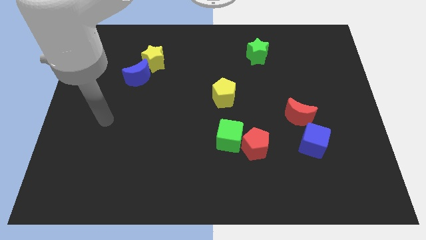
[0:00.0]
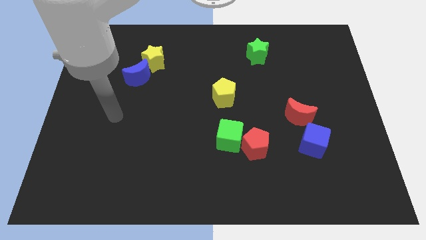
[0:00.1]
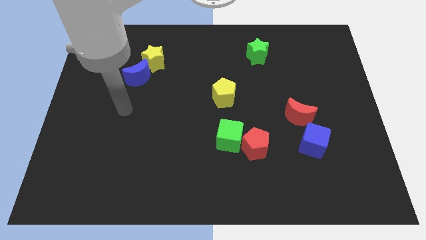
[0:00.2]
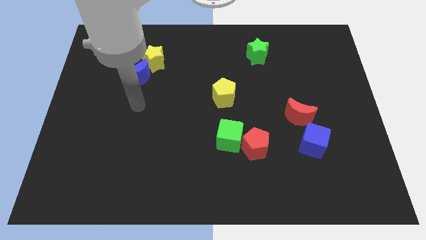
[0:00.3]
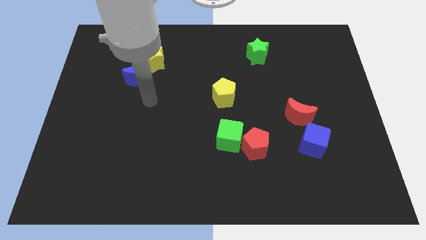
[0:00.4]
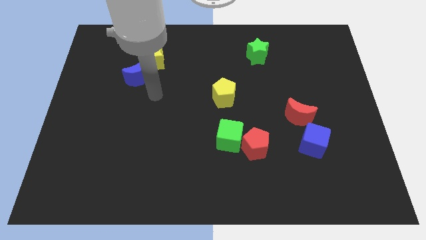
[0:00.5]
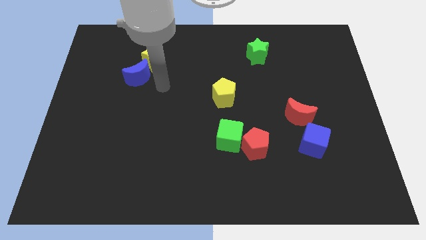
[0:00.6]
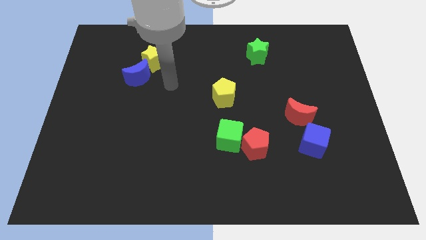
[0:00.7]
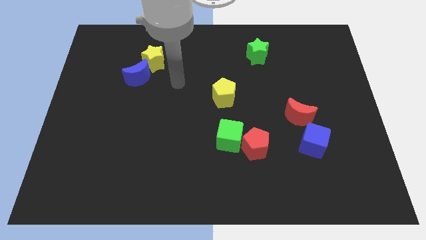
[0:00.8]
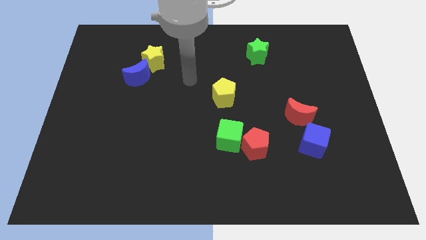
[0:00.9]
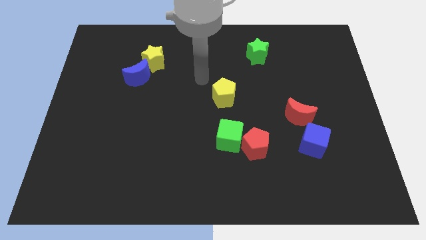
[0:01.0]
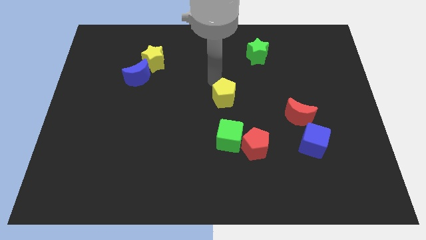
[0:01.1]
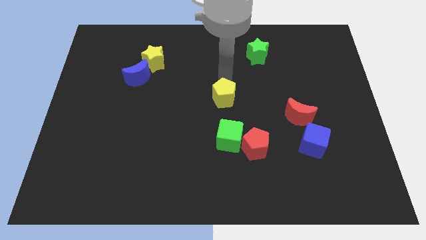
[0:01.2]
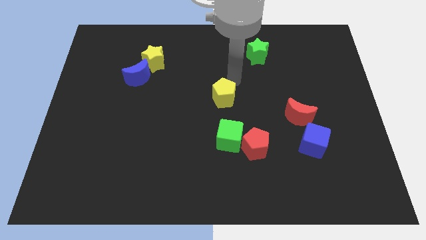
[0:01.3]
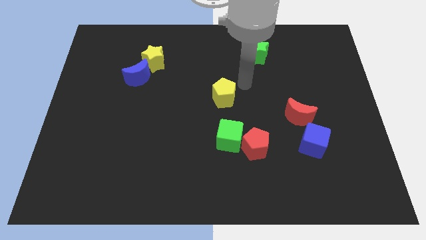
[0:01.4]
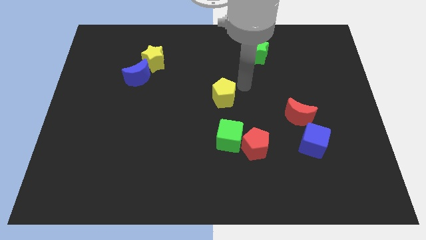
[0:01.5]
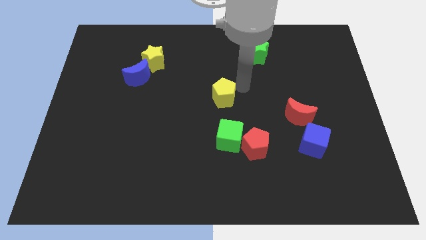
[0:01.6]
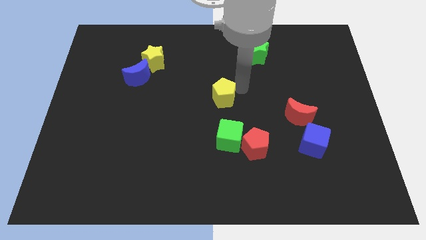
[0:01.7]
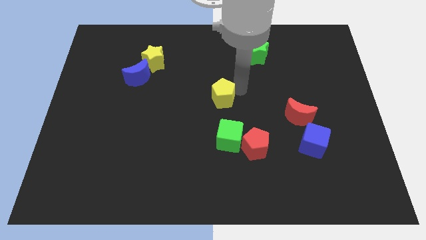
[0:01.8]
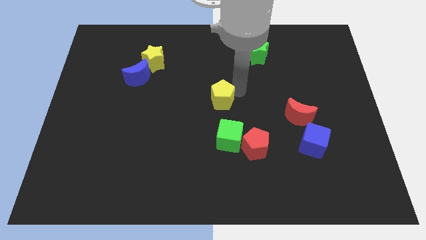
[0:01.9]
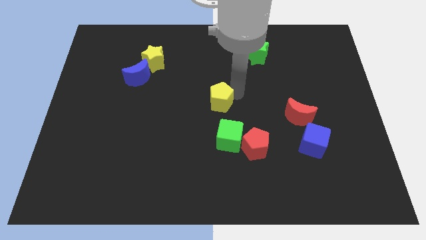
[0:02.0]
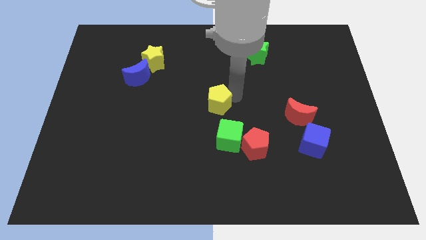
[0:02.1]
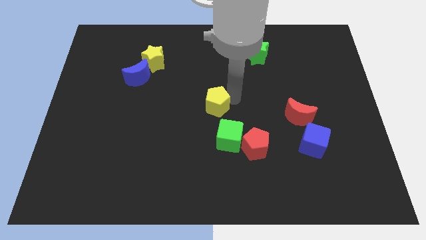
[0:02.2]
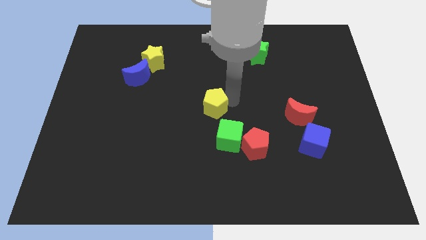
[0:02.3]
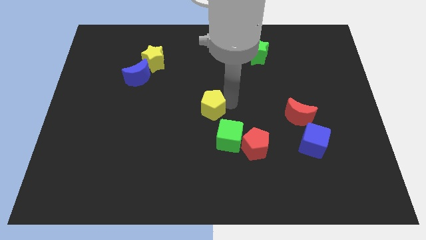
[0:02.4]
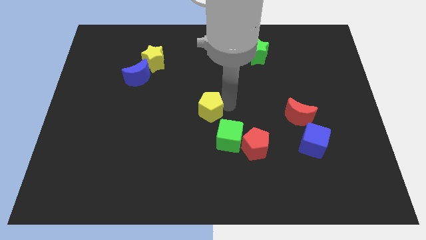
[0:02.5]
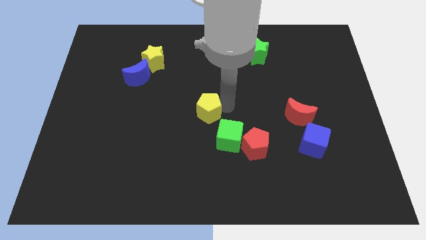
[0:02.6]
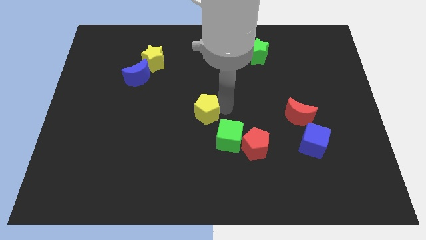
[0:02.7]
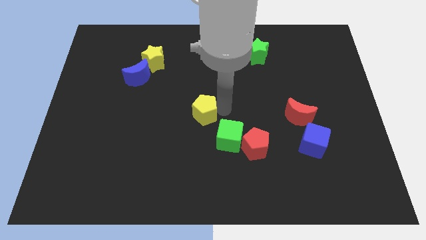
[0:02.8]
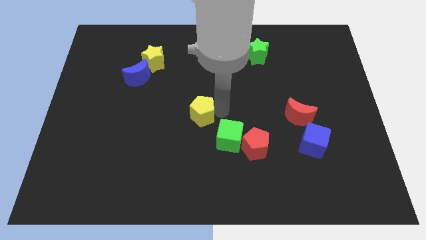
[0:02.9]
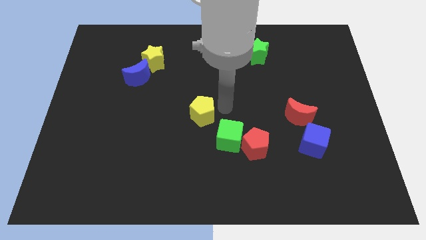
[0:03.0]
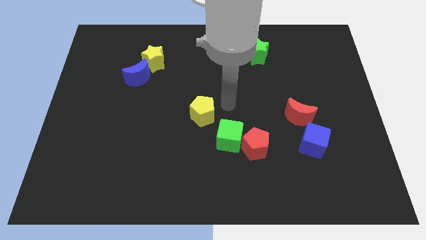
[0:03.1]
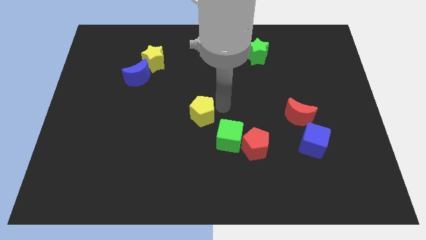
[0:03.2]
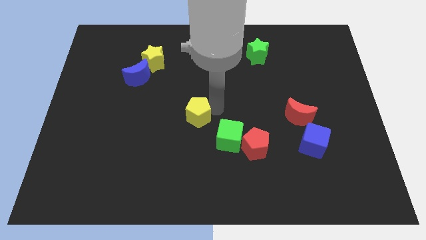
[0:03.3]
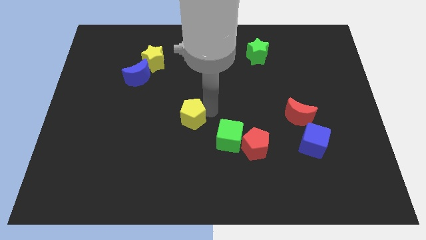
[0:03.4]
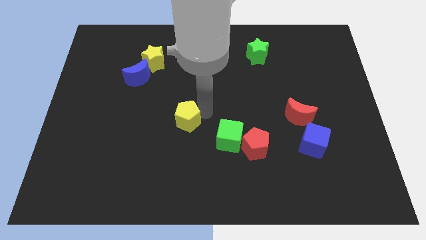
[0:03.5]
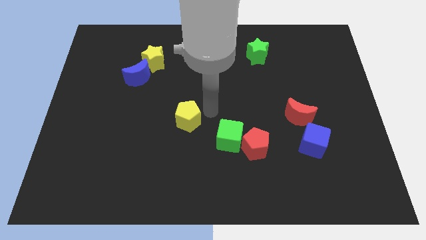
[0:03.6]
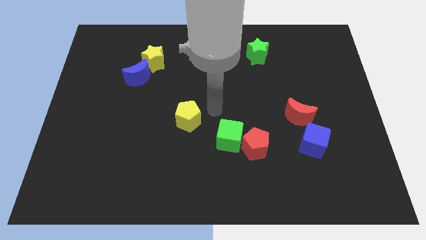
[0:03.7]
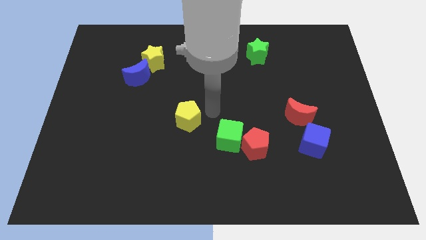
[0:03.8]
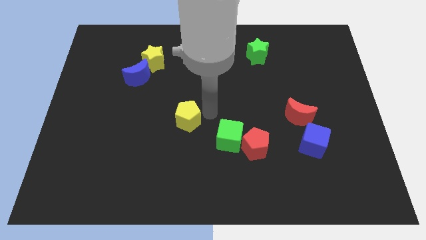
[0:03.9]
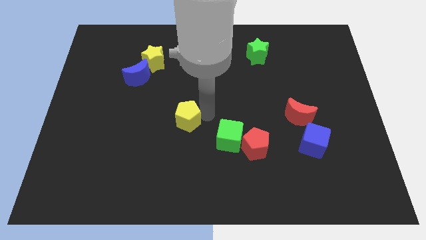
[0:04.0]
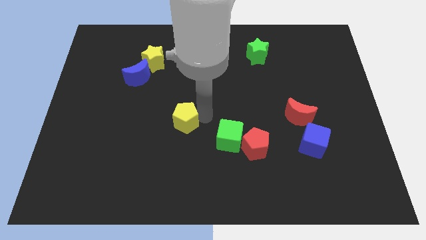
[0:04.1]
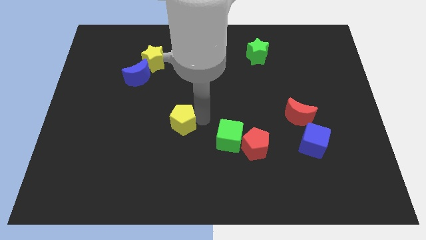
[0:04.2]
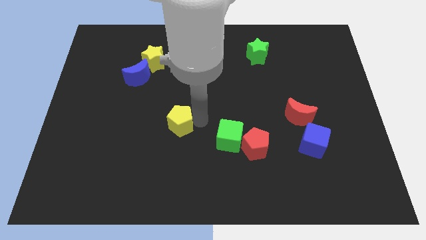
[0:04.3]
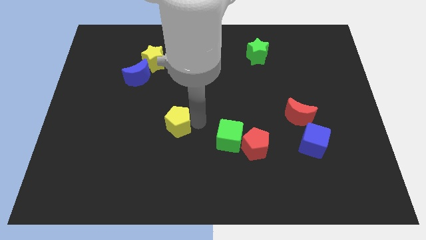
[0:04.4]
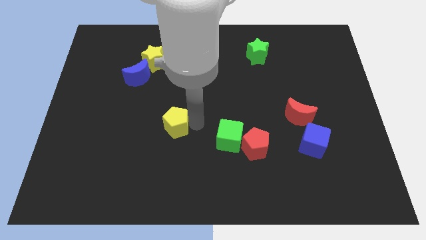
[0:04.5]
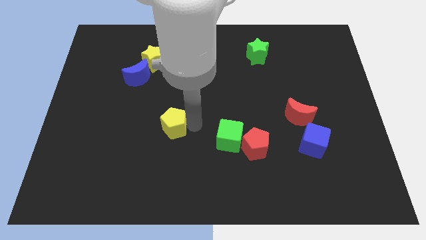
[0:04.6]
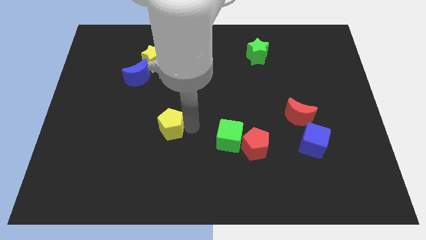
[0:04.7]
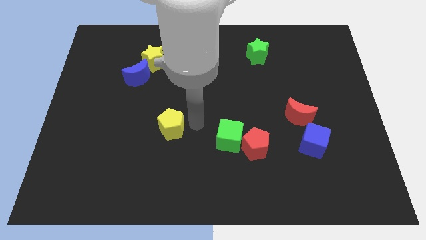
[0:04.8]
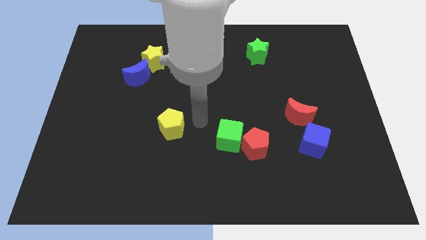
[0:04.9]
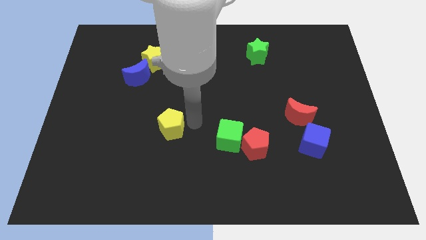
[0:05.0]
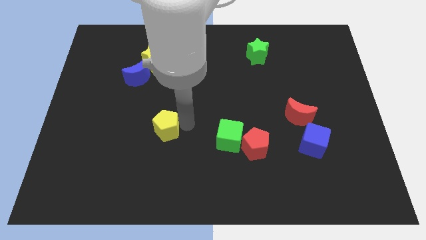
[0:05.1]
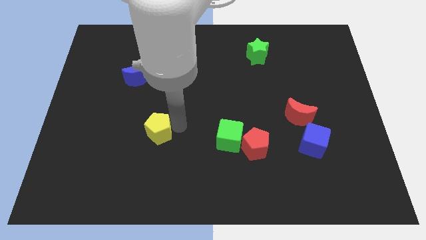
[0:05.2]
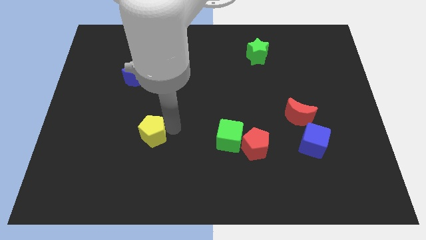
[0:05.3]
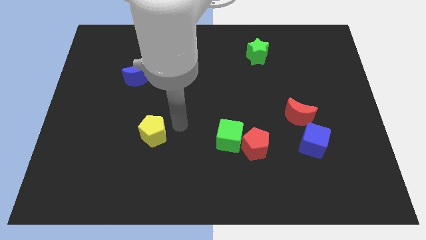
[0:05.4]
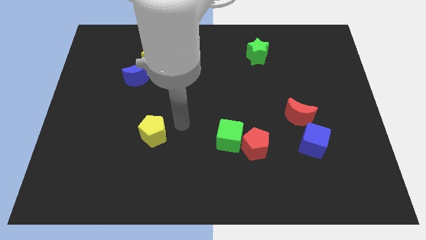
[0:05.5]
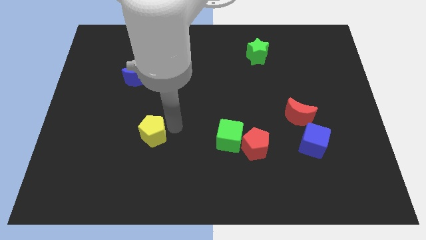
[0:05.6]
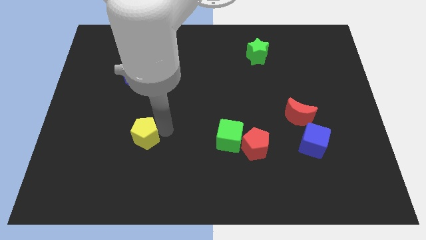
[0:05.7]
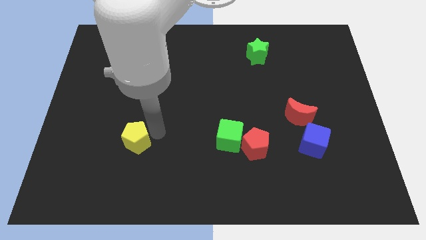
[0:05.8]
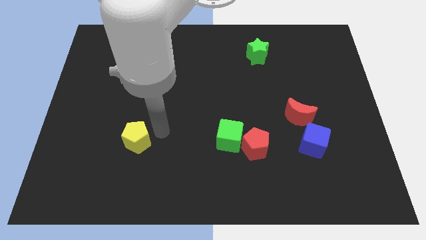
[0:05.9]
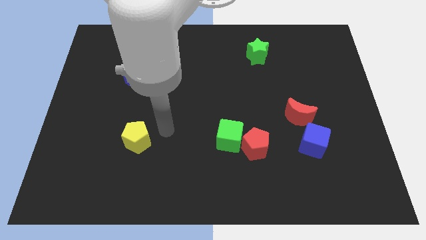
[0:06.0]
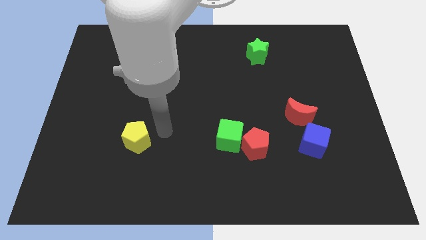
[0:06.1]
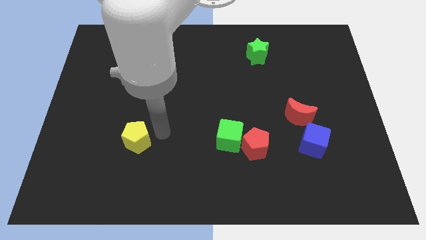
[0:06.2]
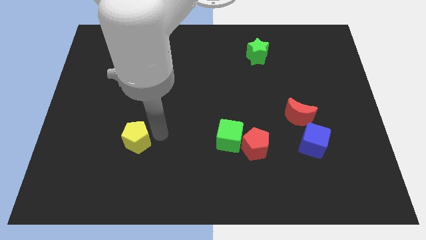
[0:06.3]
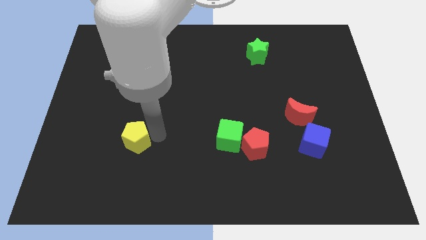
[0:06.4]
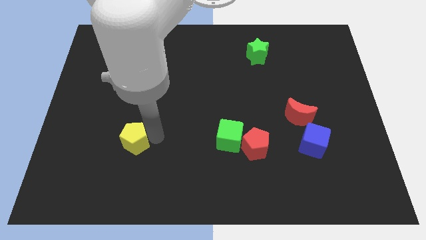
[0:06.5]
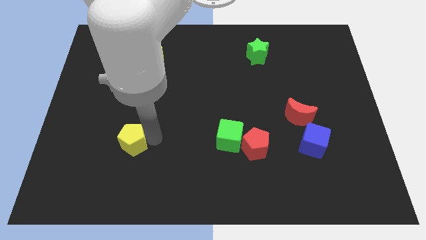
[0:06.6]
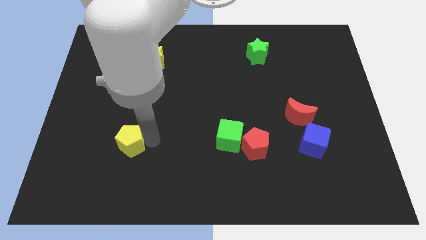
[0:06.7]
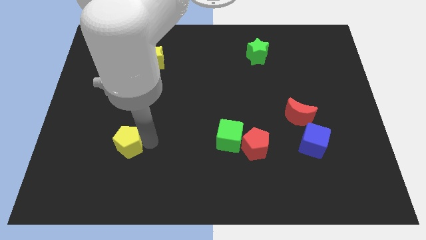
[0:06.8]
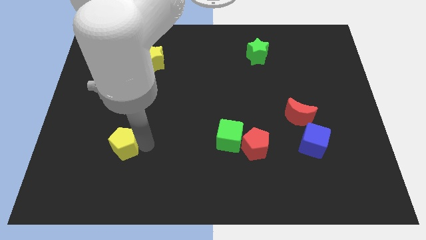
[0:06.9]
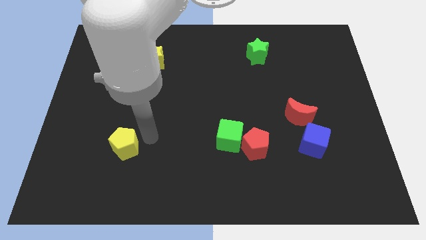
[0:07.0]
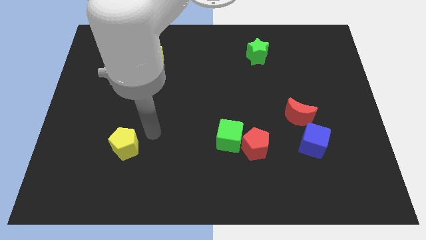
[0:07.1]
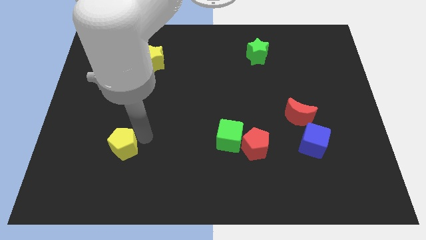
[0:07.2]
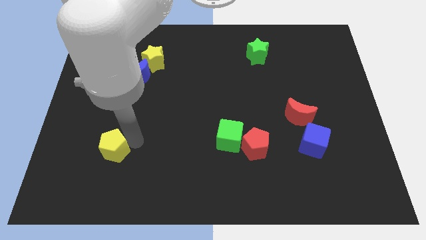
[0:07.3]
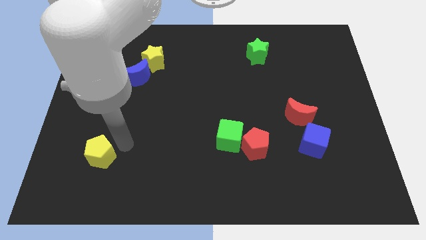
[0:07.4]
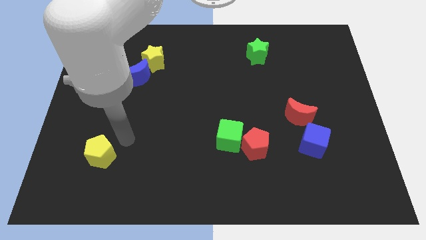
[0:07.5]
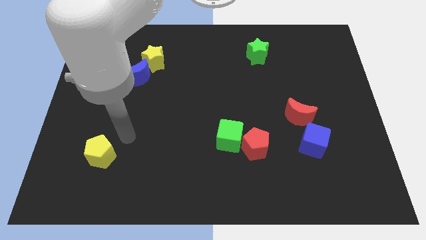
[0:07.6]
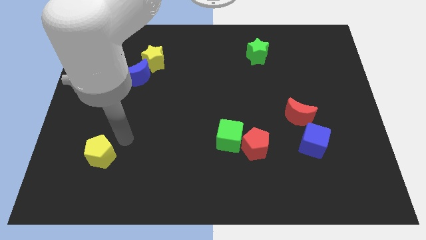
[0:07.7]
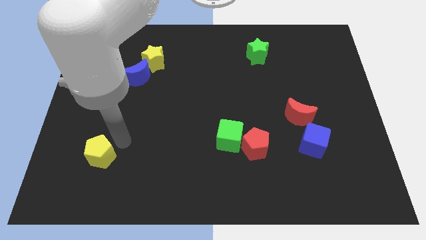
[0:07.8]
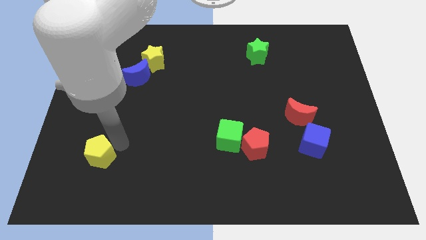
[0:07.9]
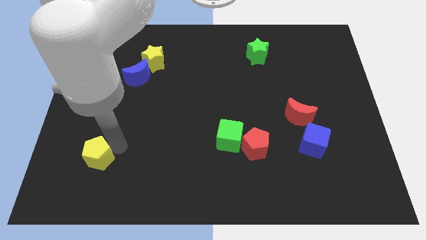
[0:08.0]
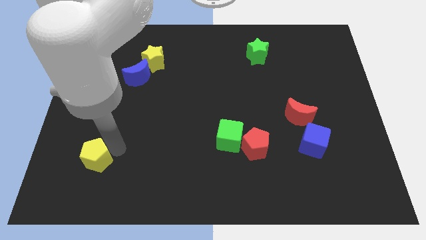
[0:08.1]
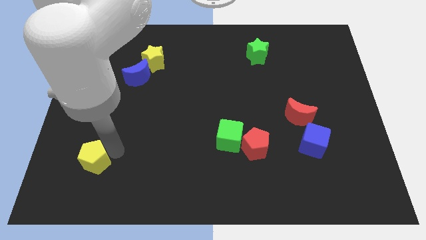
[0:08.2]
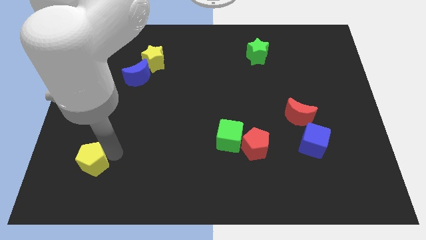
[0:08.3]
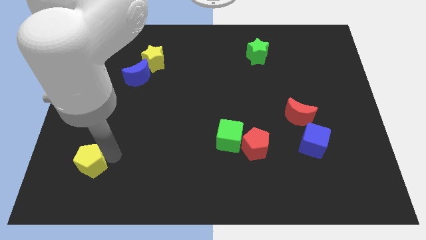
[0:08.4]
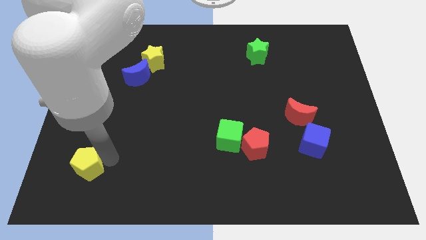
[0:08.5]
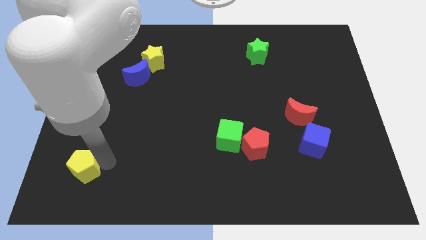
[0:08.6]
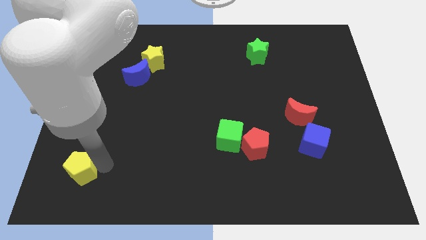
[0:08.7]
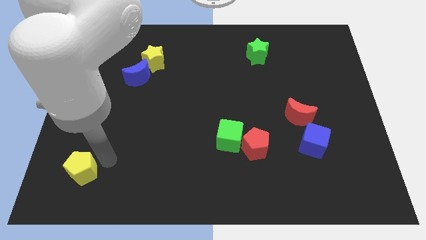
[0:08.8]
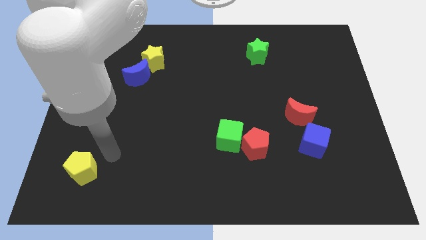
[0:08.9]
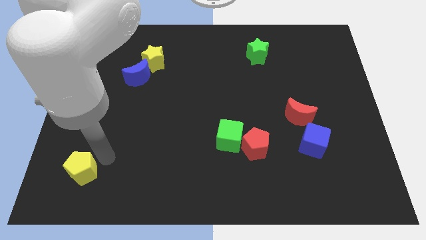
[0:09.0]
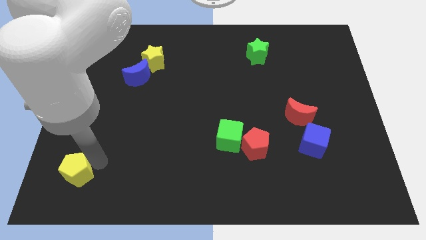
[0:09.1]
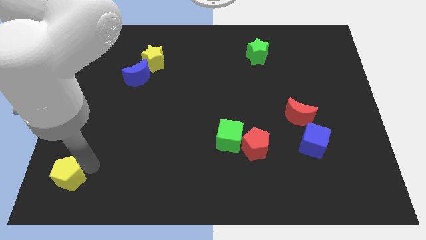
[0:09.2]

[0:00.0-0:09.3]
put the yellow pentagon to the lower left corner
